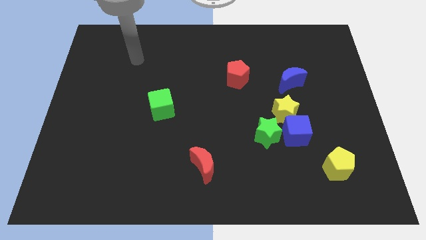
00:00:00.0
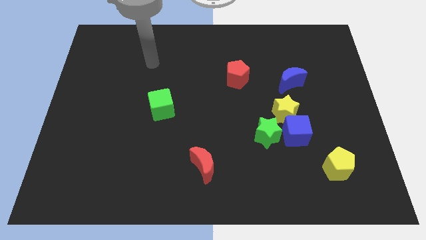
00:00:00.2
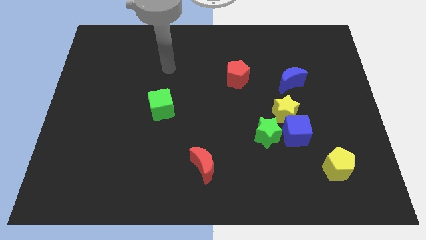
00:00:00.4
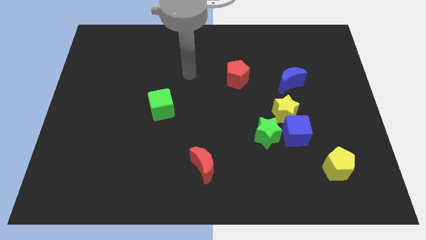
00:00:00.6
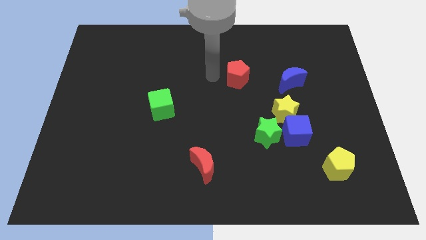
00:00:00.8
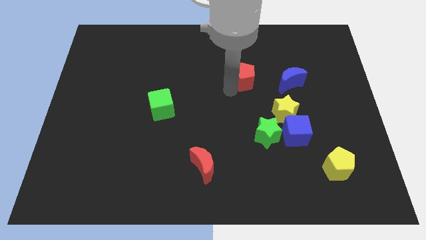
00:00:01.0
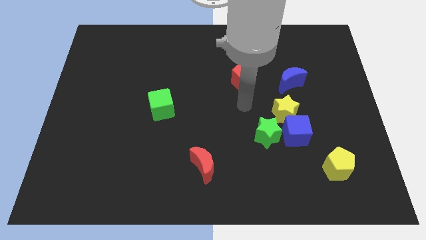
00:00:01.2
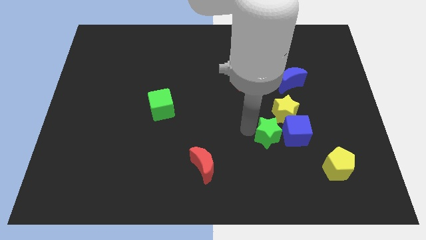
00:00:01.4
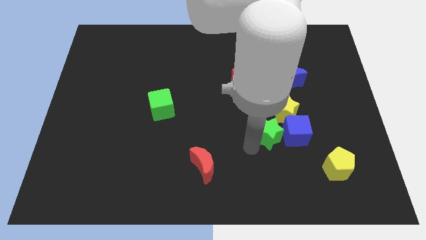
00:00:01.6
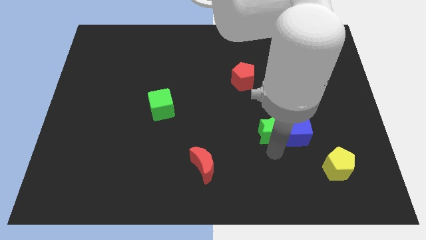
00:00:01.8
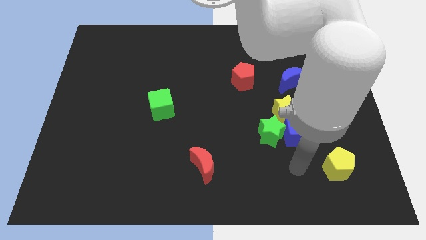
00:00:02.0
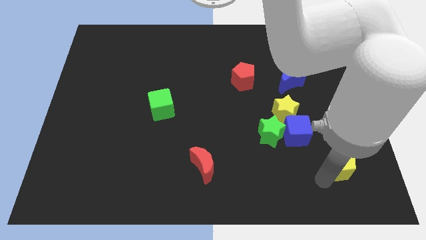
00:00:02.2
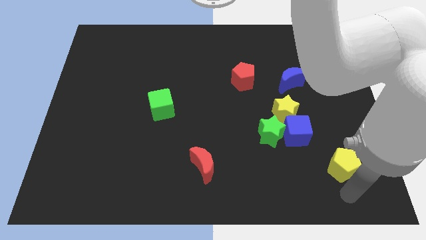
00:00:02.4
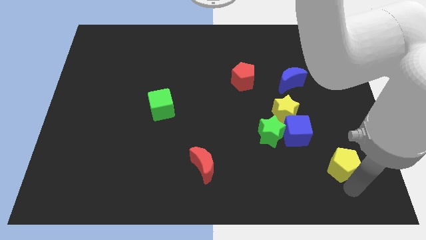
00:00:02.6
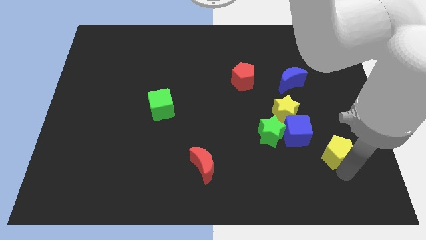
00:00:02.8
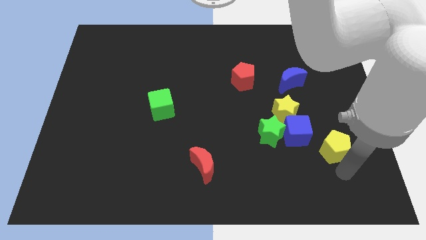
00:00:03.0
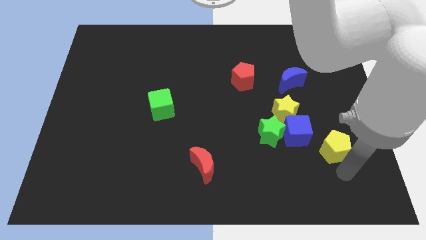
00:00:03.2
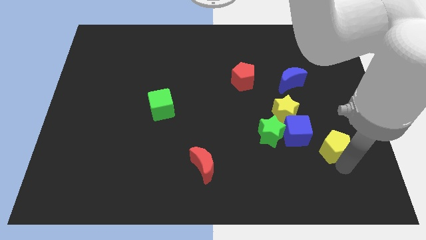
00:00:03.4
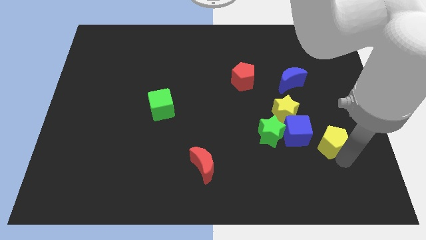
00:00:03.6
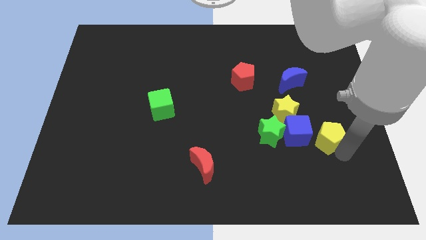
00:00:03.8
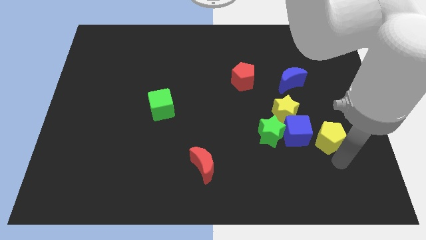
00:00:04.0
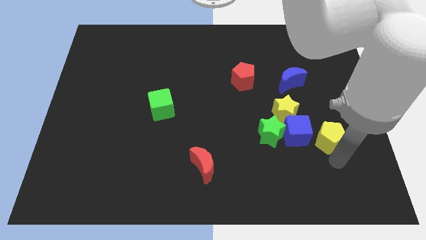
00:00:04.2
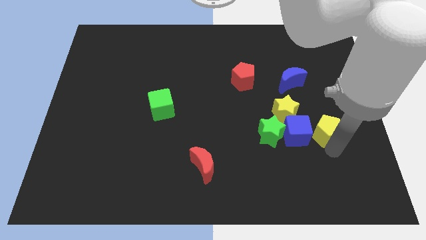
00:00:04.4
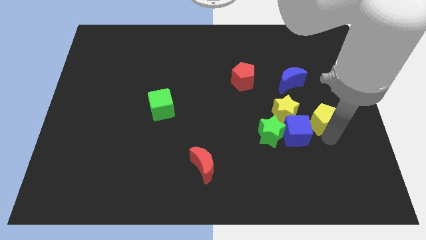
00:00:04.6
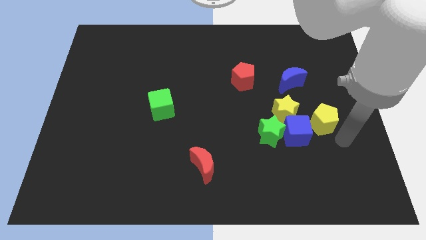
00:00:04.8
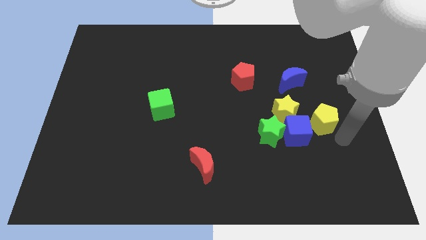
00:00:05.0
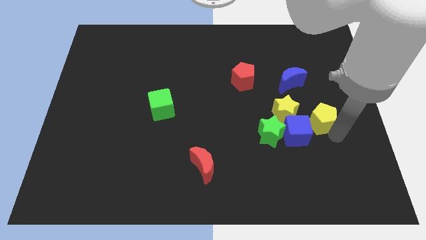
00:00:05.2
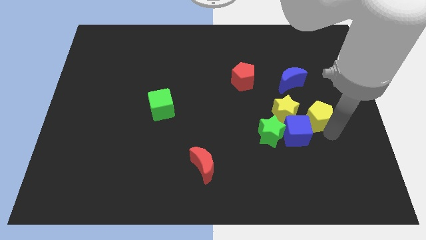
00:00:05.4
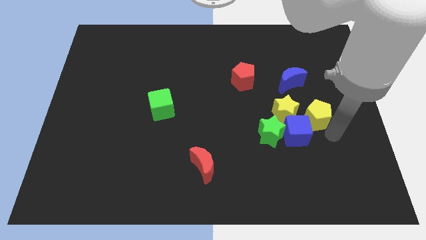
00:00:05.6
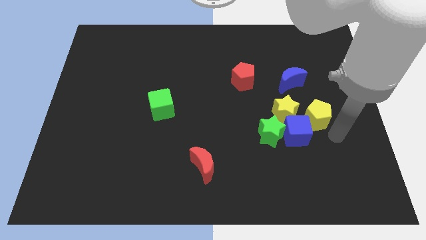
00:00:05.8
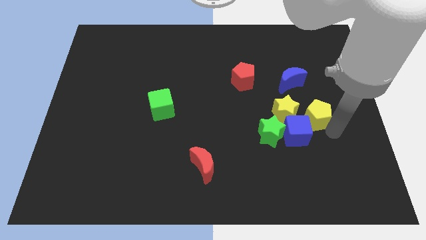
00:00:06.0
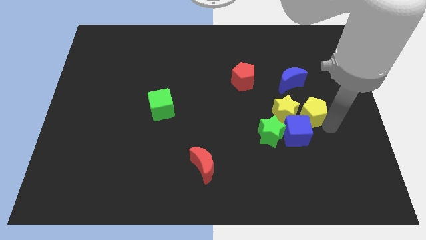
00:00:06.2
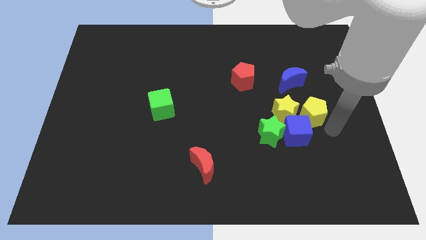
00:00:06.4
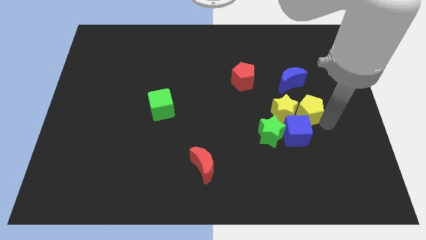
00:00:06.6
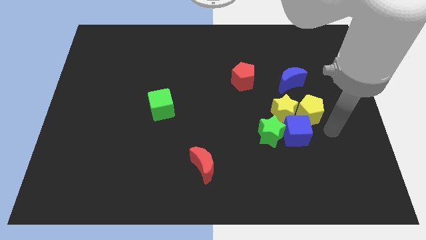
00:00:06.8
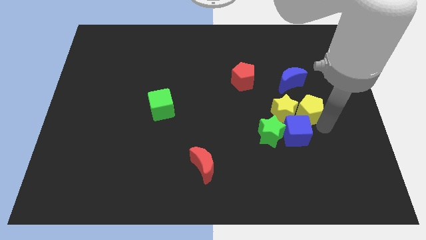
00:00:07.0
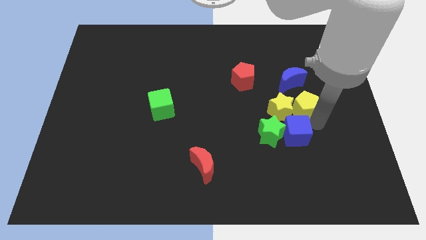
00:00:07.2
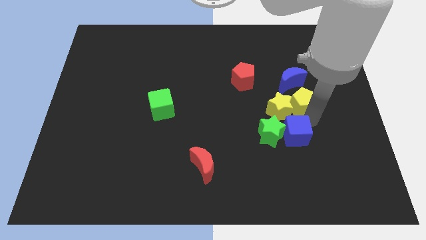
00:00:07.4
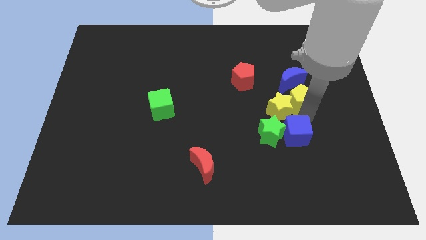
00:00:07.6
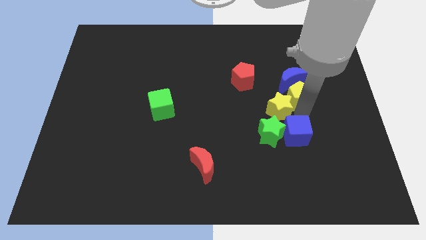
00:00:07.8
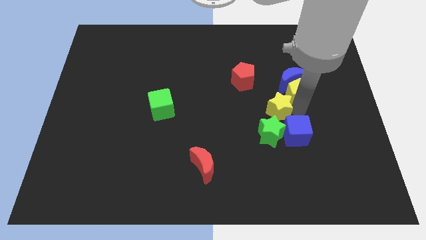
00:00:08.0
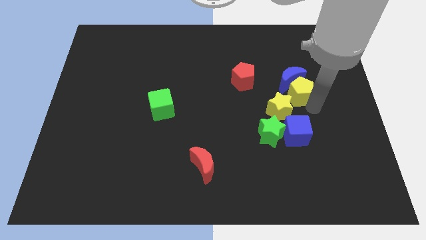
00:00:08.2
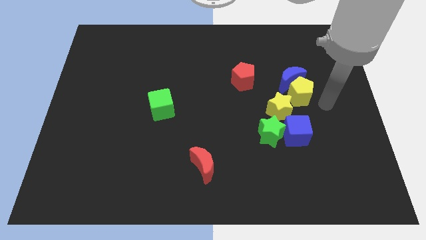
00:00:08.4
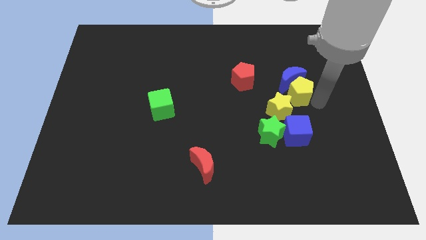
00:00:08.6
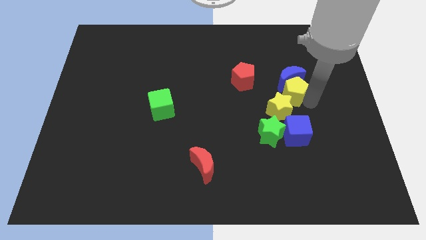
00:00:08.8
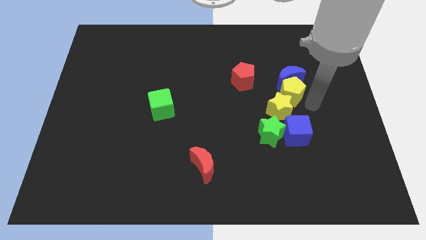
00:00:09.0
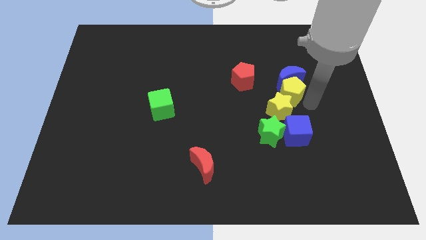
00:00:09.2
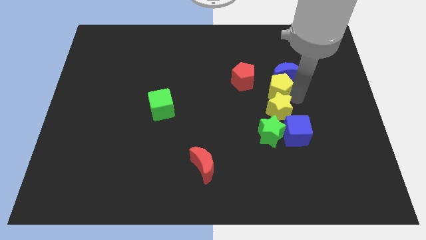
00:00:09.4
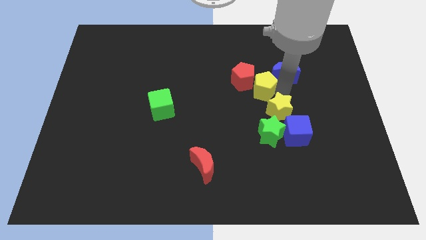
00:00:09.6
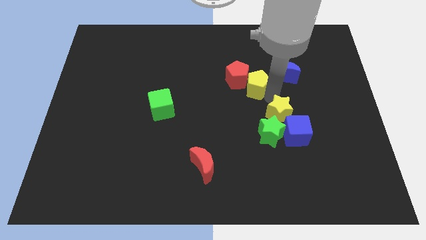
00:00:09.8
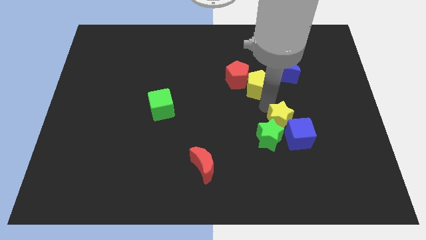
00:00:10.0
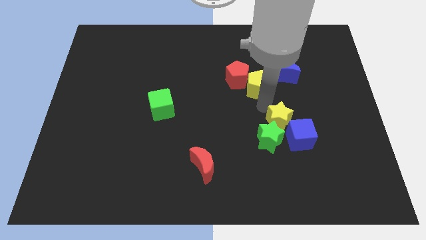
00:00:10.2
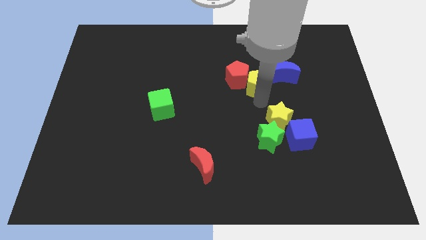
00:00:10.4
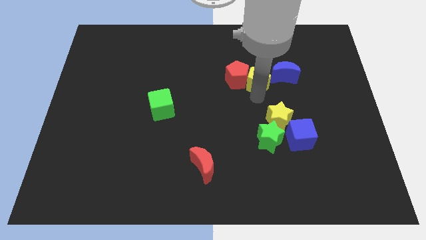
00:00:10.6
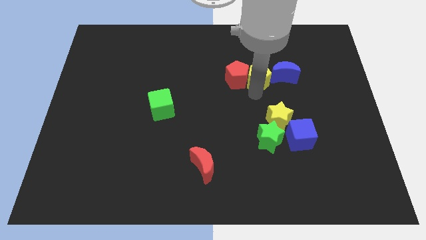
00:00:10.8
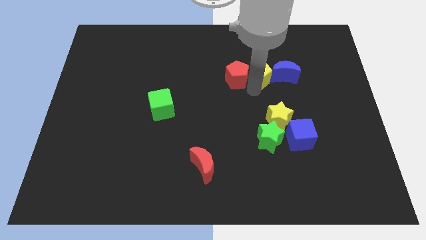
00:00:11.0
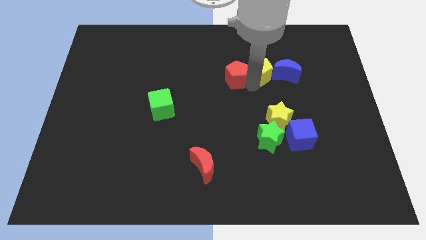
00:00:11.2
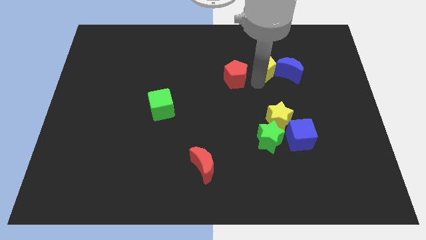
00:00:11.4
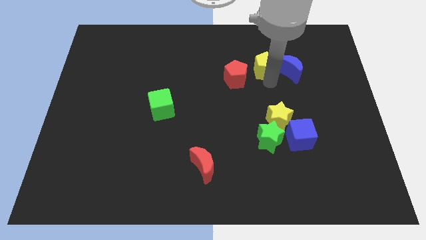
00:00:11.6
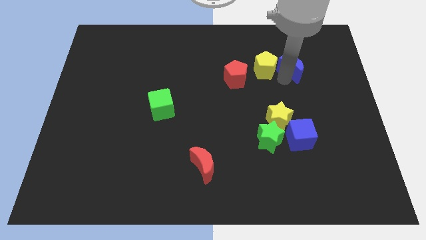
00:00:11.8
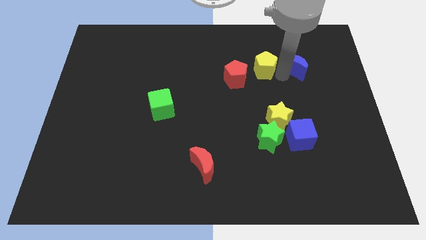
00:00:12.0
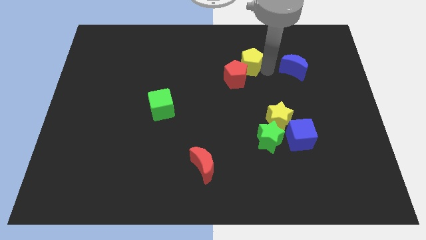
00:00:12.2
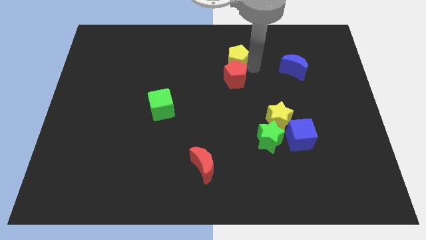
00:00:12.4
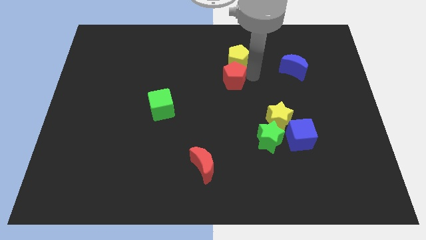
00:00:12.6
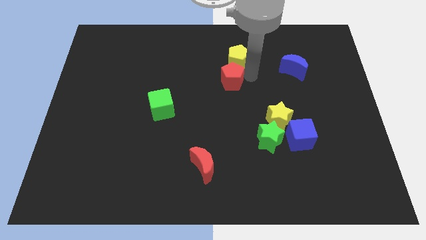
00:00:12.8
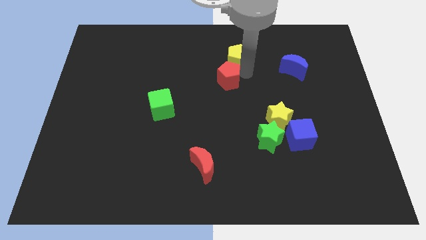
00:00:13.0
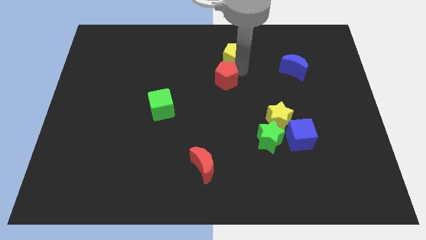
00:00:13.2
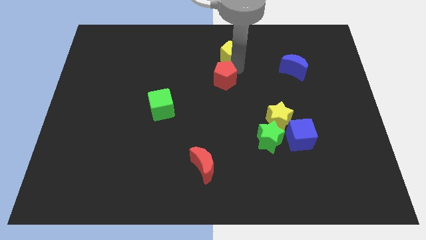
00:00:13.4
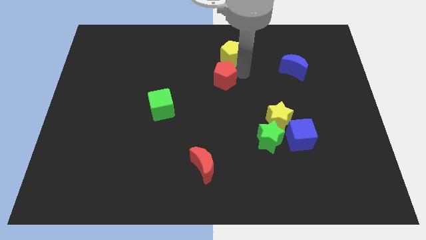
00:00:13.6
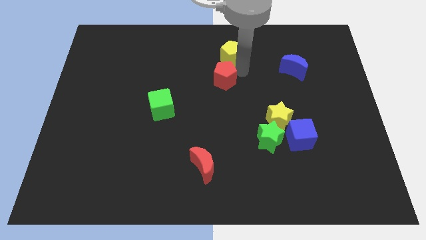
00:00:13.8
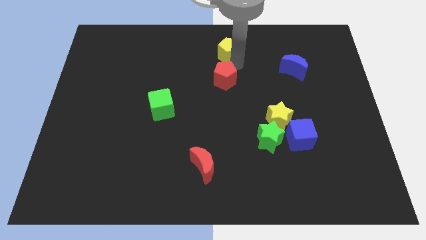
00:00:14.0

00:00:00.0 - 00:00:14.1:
move the yellow pentagon to the top side

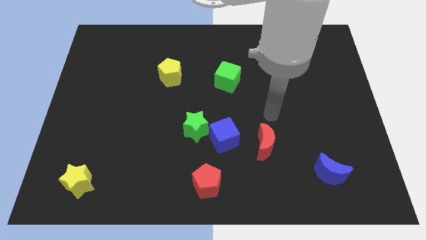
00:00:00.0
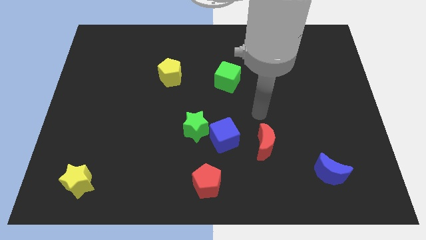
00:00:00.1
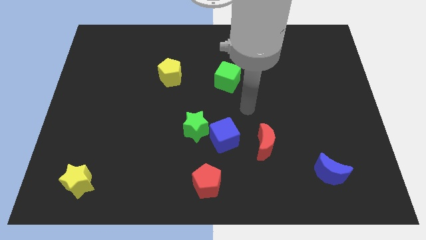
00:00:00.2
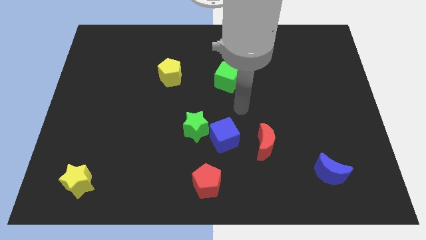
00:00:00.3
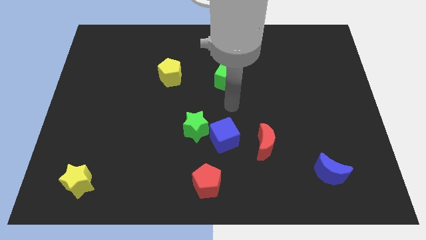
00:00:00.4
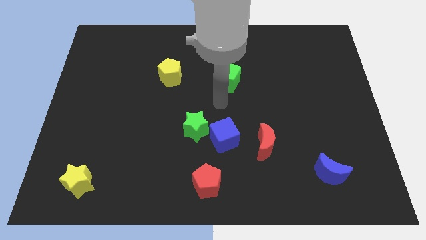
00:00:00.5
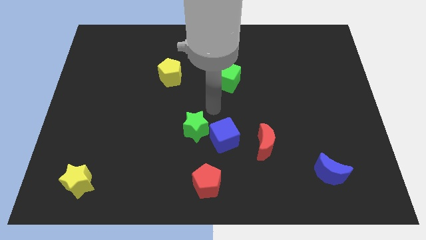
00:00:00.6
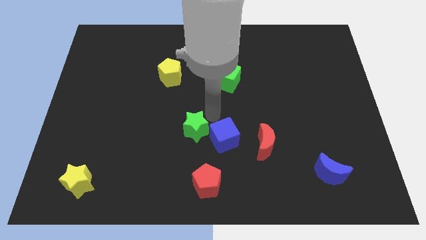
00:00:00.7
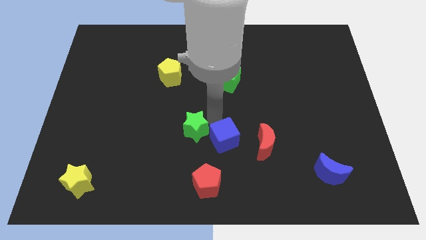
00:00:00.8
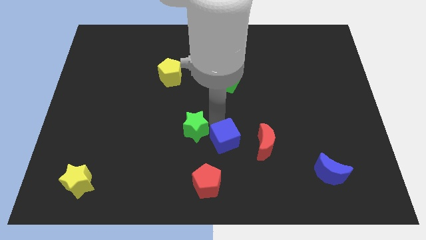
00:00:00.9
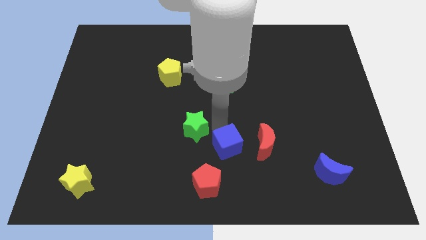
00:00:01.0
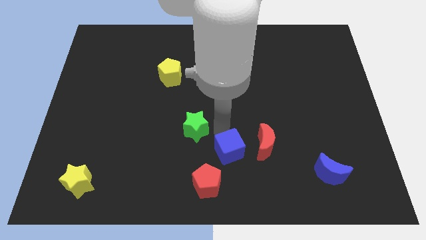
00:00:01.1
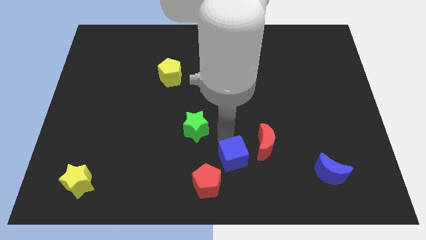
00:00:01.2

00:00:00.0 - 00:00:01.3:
move the blue cube to the bottom
